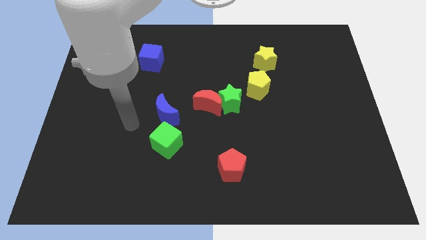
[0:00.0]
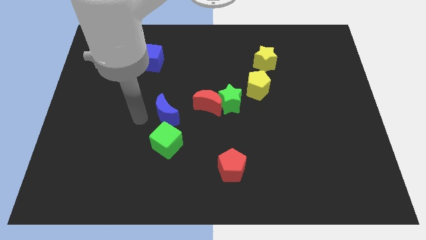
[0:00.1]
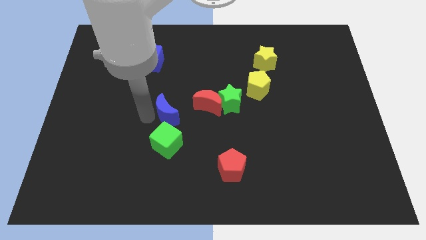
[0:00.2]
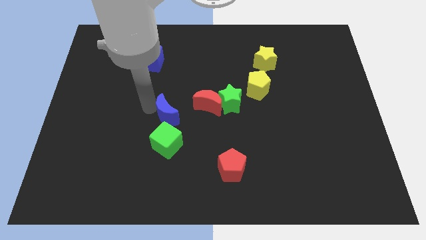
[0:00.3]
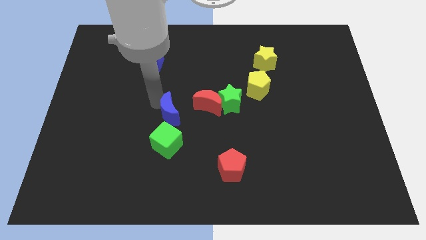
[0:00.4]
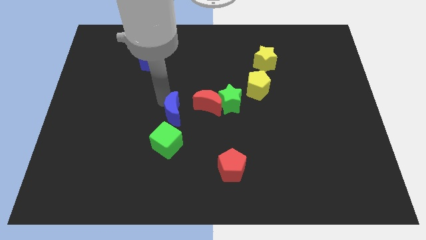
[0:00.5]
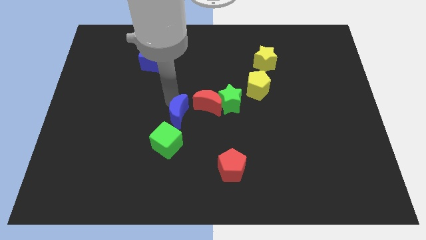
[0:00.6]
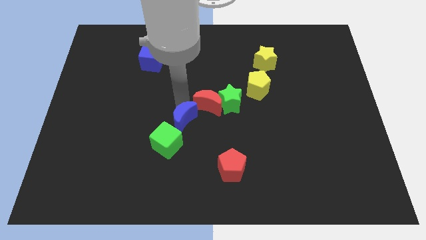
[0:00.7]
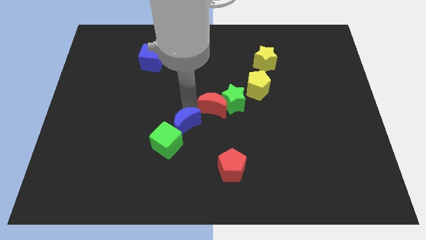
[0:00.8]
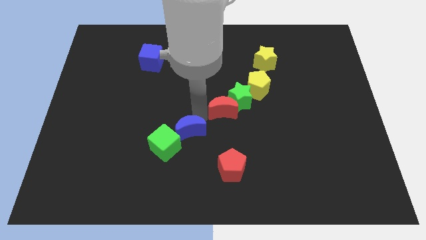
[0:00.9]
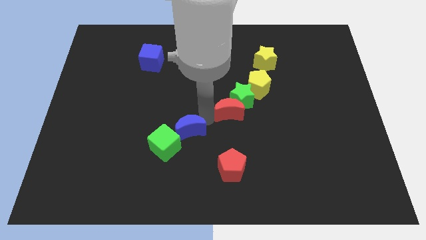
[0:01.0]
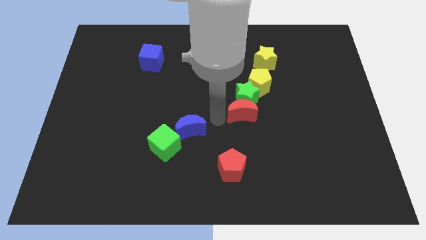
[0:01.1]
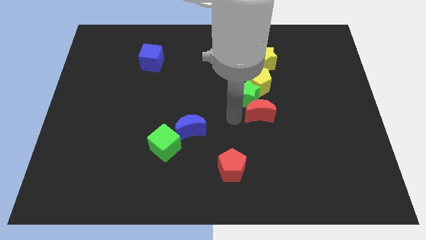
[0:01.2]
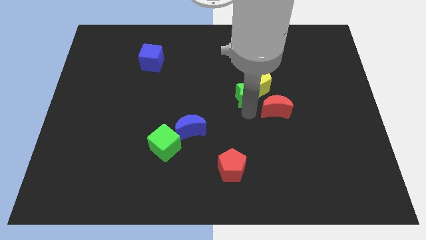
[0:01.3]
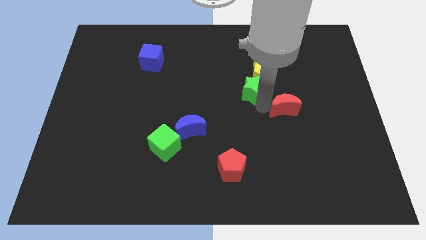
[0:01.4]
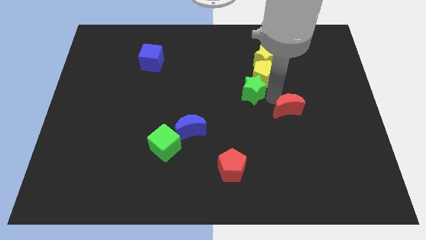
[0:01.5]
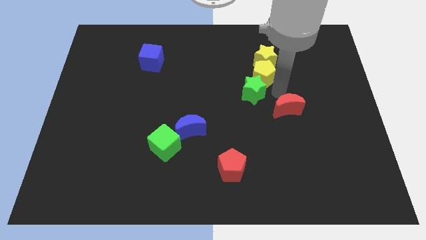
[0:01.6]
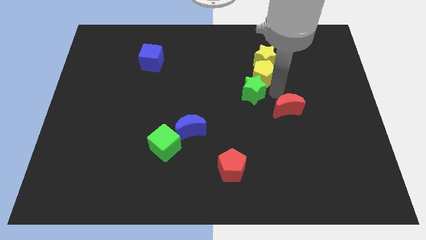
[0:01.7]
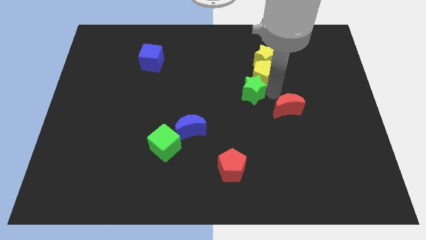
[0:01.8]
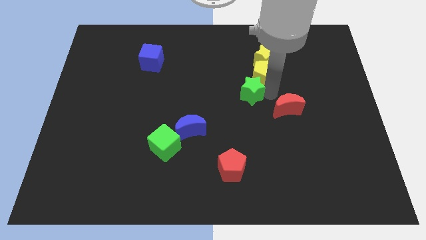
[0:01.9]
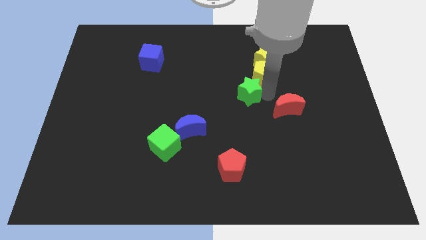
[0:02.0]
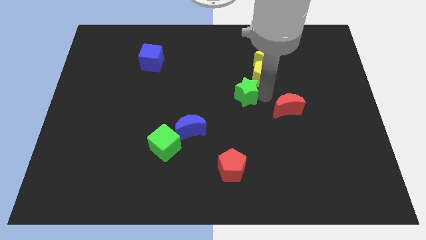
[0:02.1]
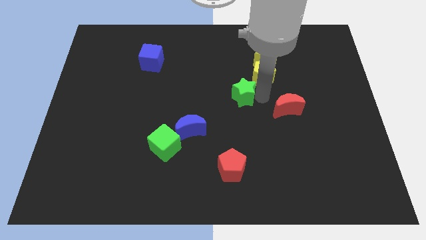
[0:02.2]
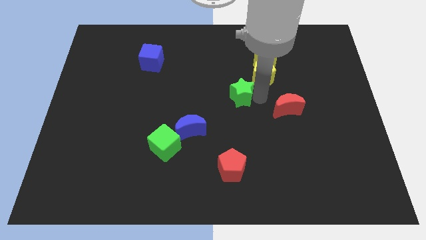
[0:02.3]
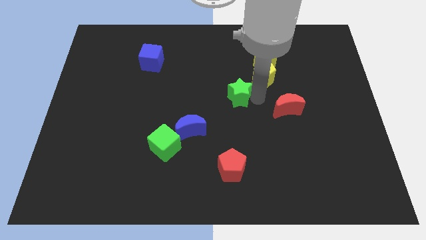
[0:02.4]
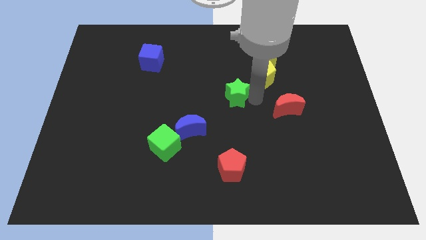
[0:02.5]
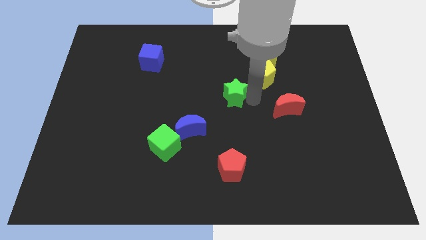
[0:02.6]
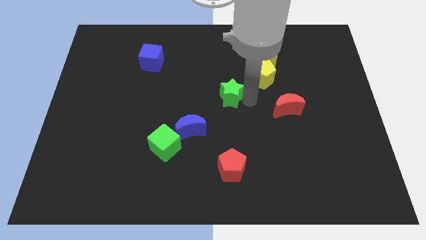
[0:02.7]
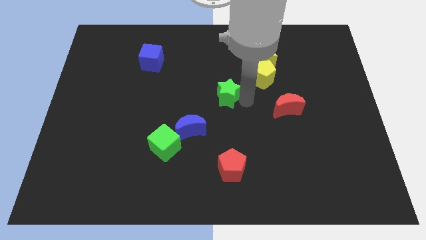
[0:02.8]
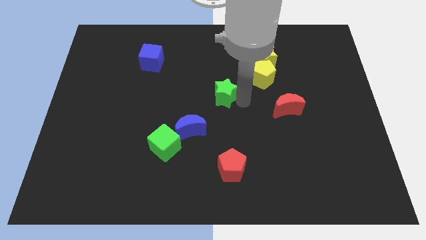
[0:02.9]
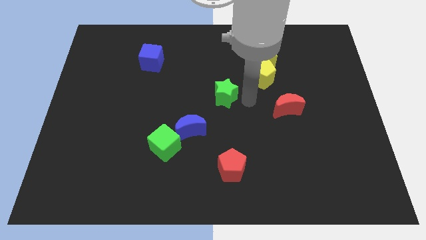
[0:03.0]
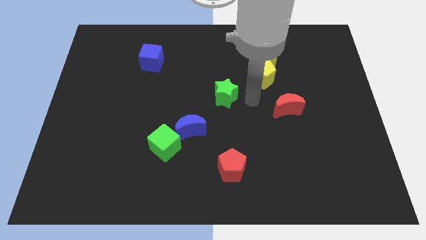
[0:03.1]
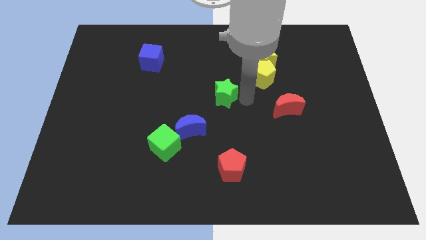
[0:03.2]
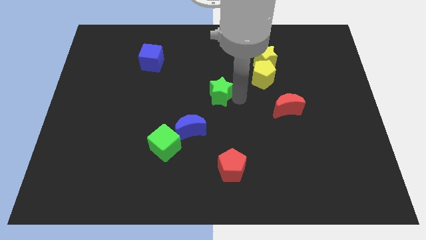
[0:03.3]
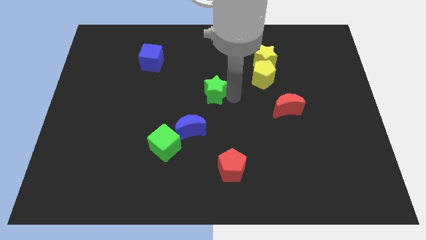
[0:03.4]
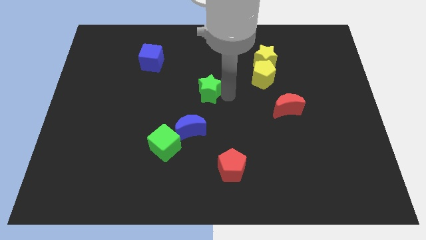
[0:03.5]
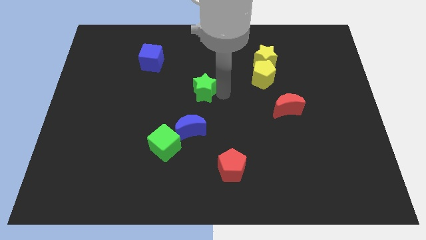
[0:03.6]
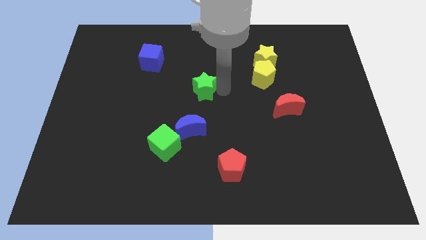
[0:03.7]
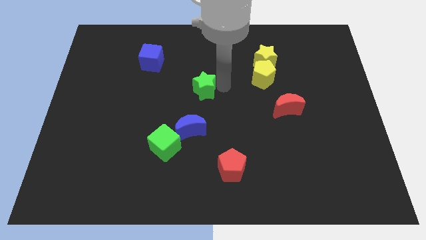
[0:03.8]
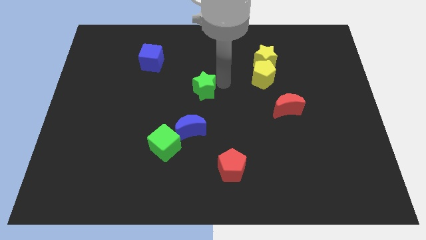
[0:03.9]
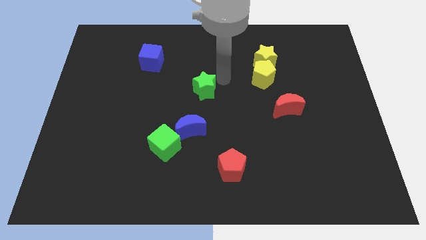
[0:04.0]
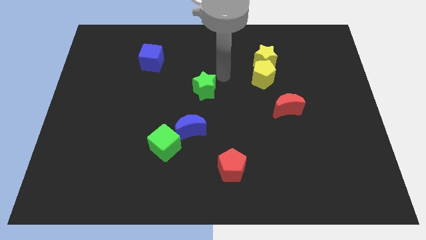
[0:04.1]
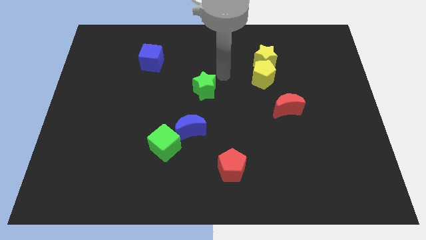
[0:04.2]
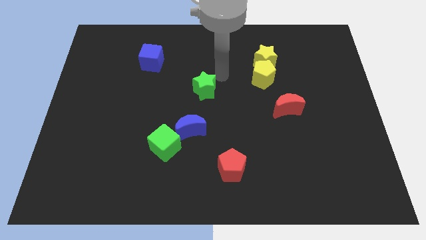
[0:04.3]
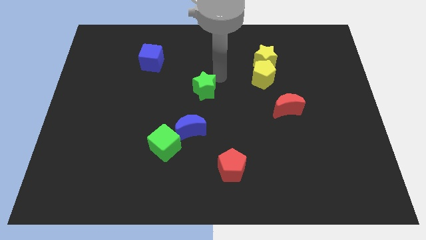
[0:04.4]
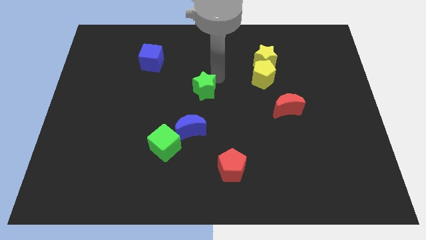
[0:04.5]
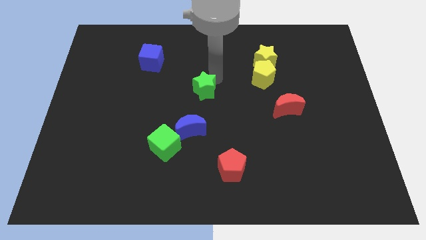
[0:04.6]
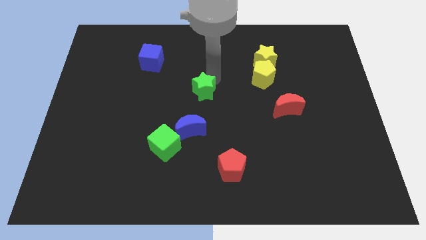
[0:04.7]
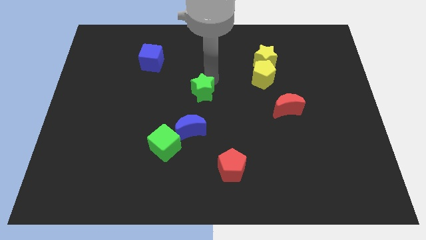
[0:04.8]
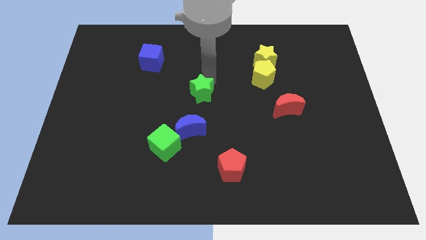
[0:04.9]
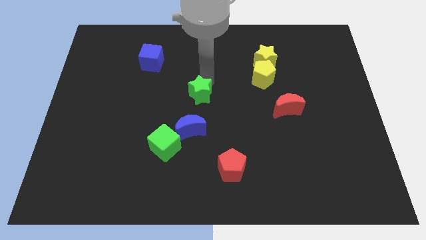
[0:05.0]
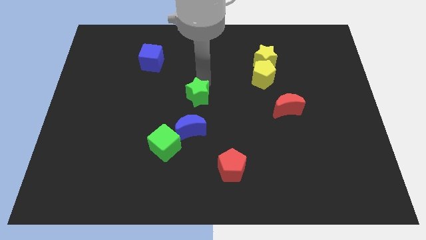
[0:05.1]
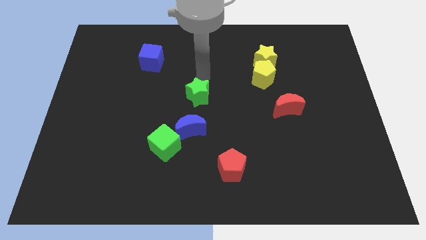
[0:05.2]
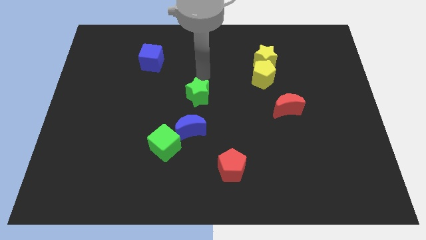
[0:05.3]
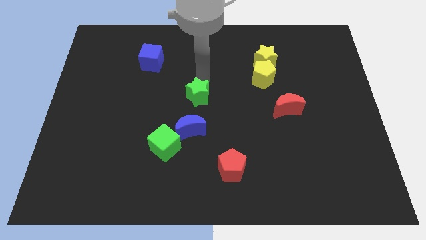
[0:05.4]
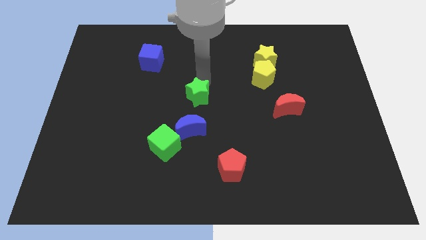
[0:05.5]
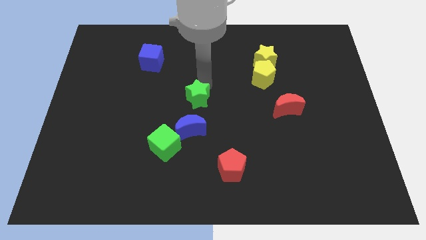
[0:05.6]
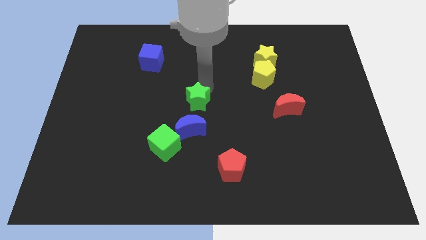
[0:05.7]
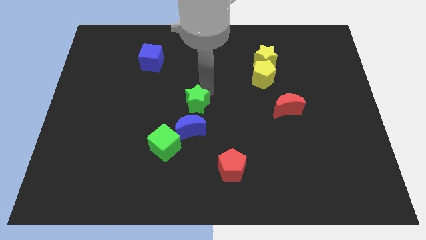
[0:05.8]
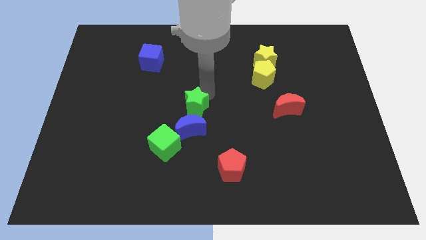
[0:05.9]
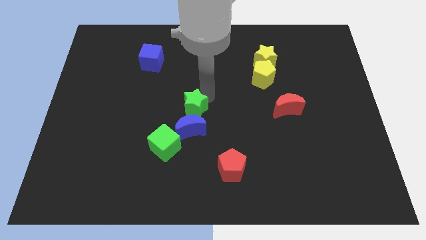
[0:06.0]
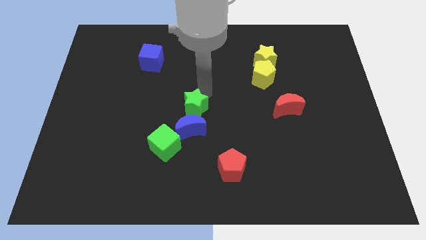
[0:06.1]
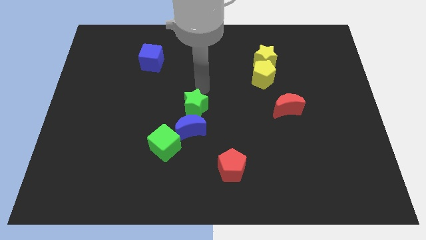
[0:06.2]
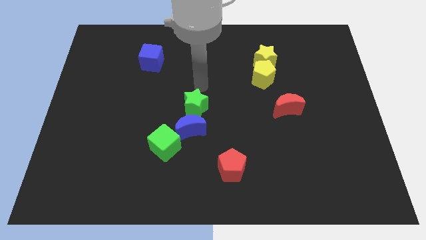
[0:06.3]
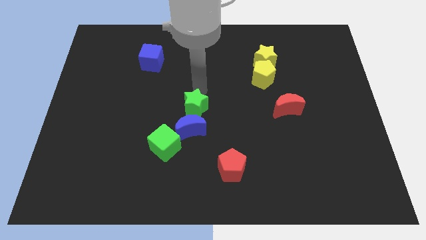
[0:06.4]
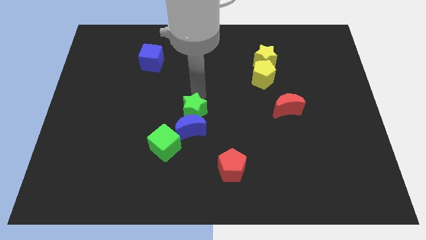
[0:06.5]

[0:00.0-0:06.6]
push the green star towards the blue moon
